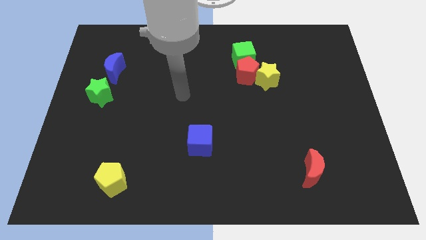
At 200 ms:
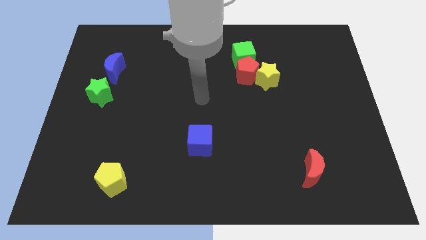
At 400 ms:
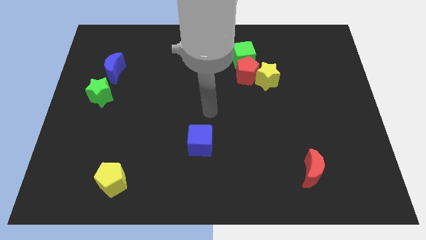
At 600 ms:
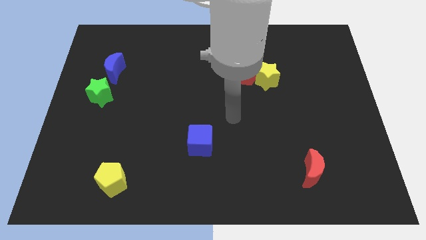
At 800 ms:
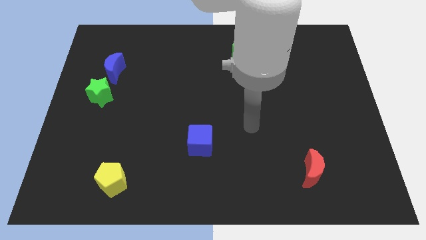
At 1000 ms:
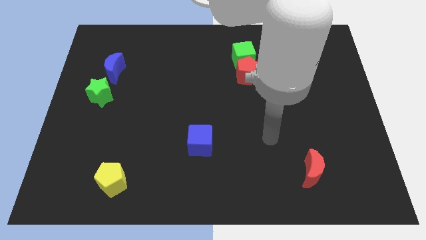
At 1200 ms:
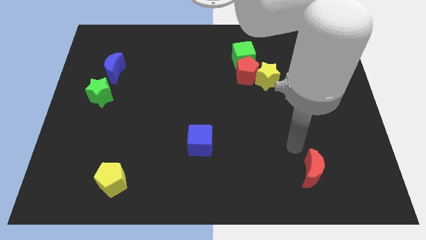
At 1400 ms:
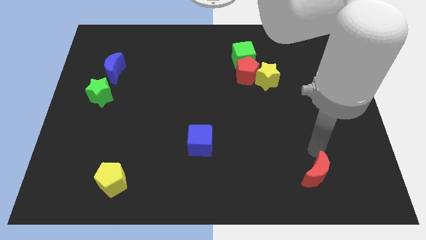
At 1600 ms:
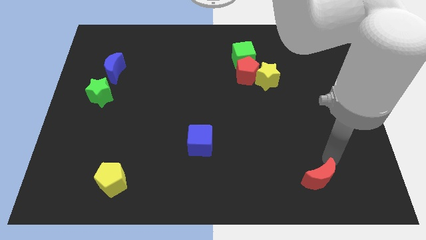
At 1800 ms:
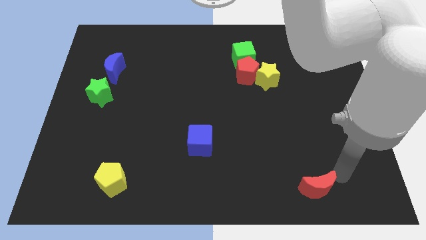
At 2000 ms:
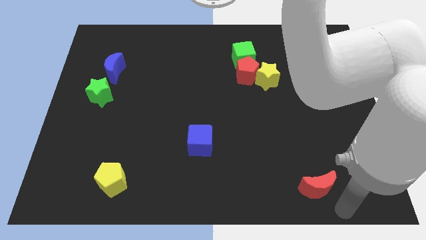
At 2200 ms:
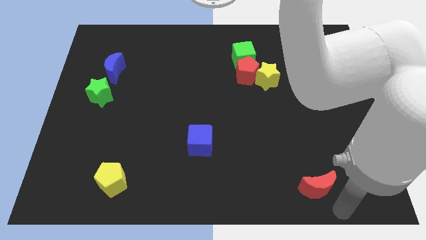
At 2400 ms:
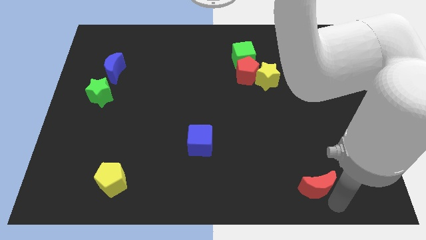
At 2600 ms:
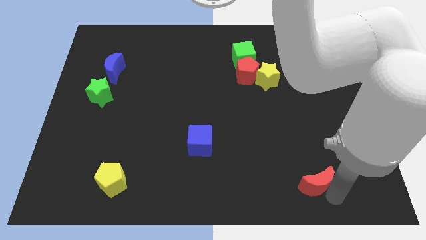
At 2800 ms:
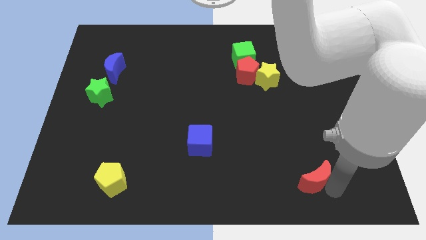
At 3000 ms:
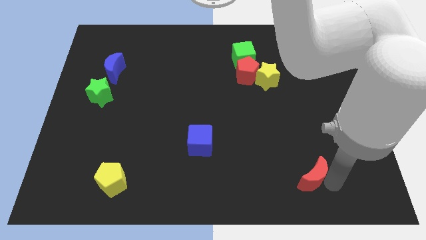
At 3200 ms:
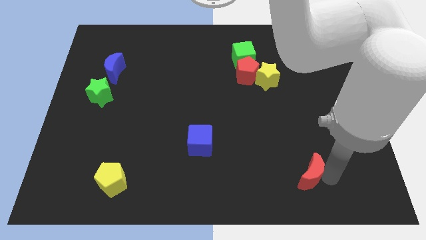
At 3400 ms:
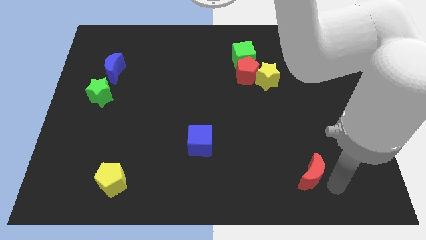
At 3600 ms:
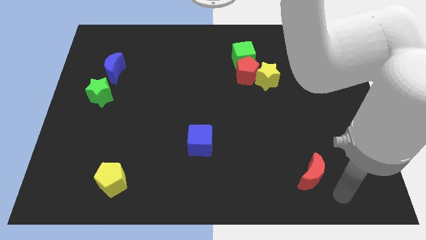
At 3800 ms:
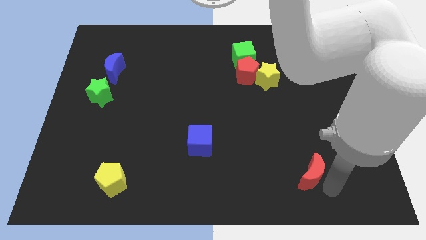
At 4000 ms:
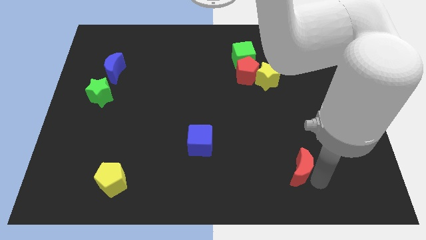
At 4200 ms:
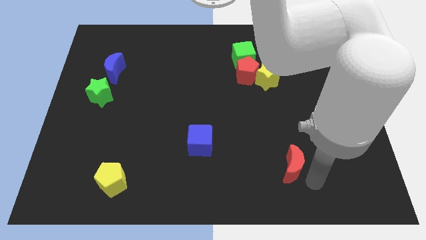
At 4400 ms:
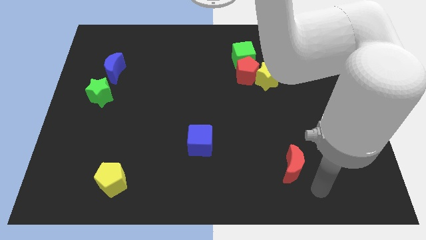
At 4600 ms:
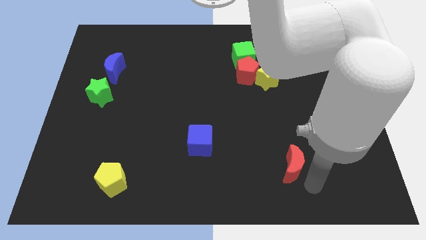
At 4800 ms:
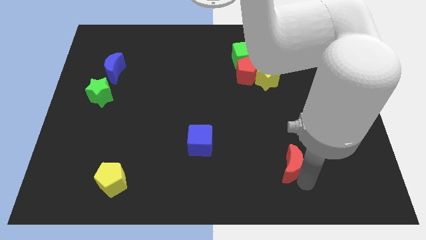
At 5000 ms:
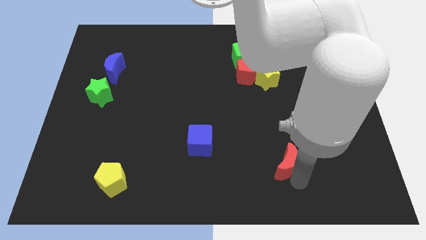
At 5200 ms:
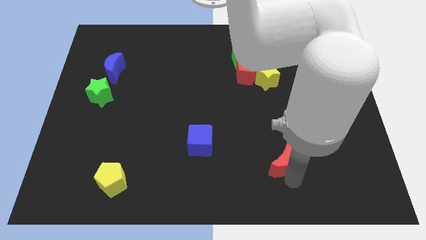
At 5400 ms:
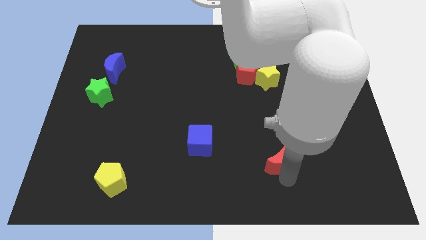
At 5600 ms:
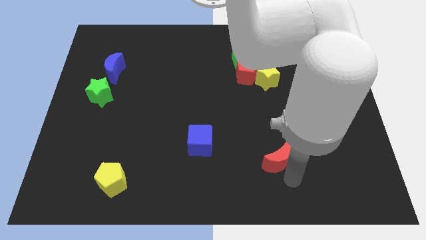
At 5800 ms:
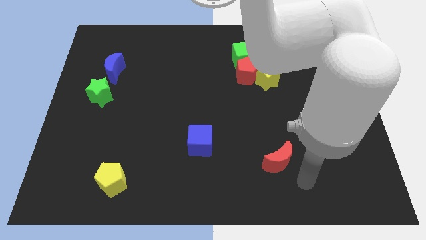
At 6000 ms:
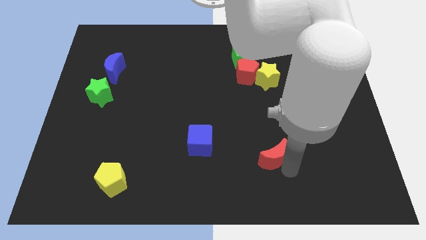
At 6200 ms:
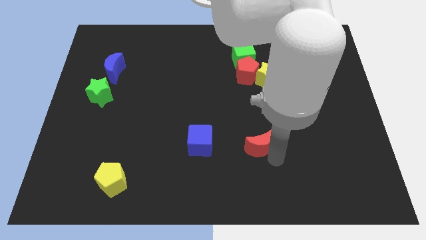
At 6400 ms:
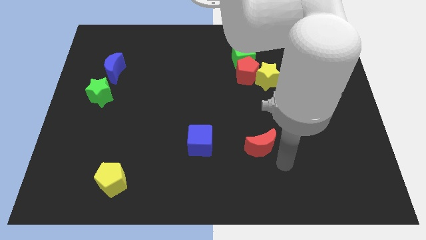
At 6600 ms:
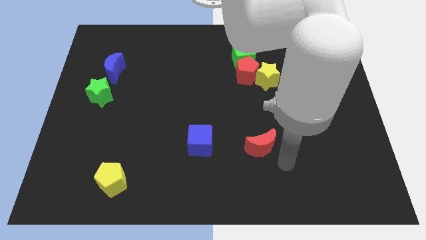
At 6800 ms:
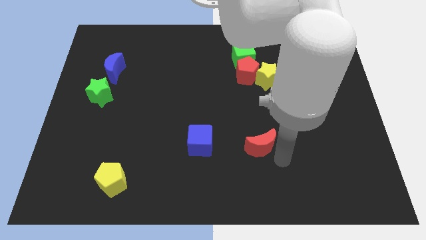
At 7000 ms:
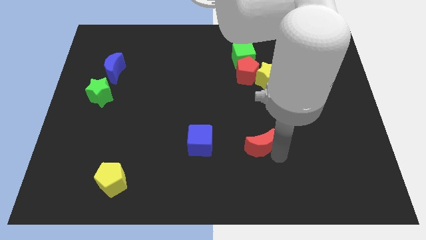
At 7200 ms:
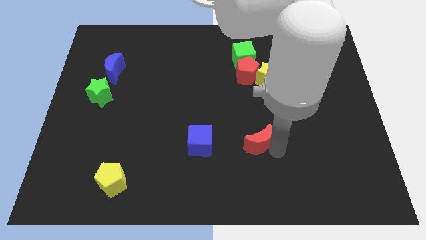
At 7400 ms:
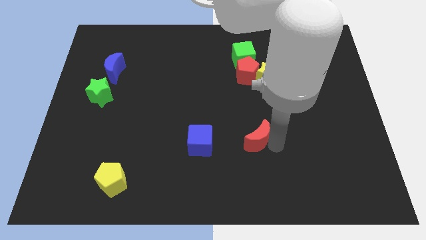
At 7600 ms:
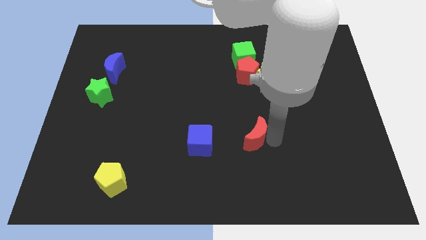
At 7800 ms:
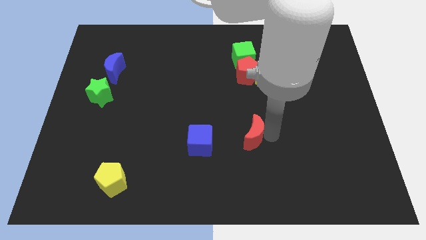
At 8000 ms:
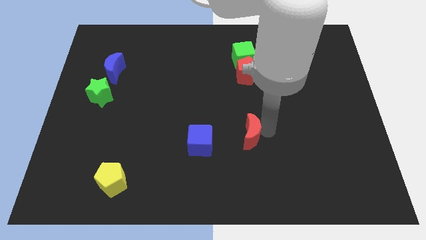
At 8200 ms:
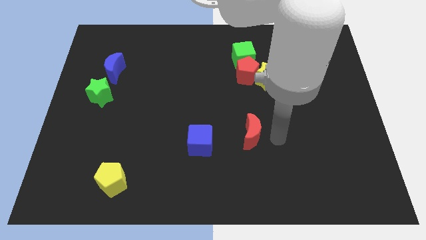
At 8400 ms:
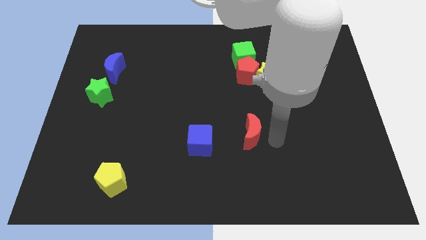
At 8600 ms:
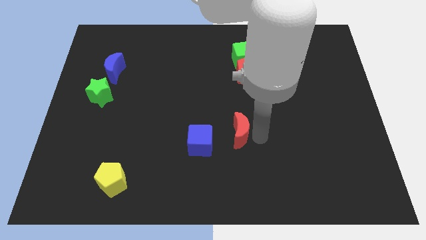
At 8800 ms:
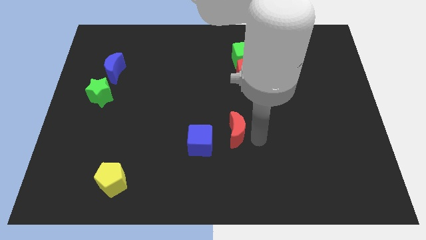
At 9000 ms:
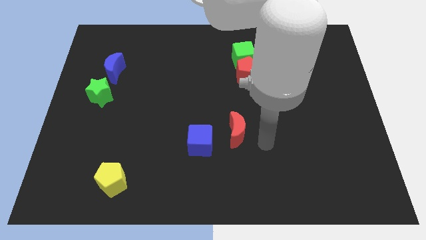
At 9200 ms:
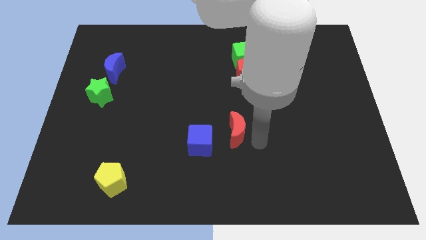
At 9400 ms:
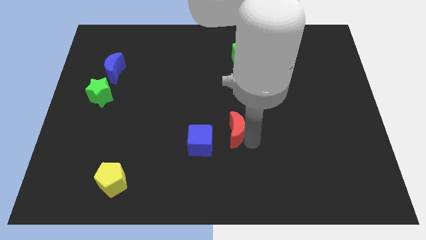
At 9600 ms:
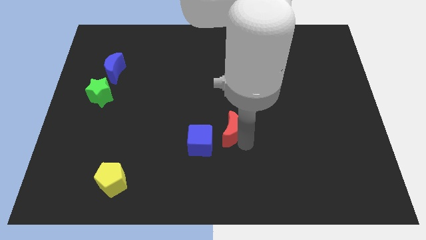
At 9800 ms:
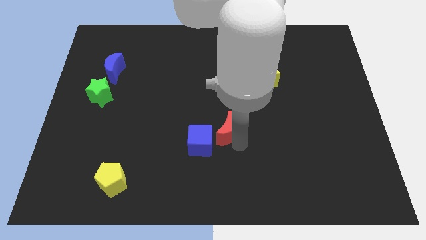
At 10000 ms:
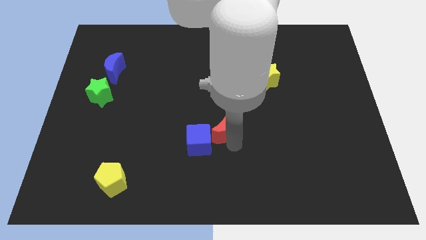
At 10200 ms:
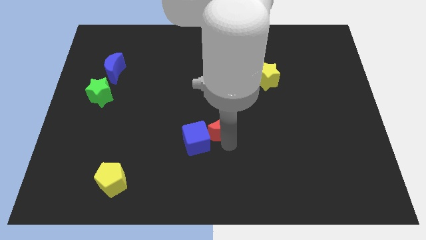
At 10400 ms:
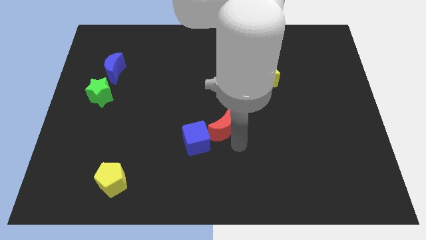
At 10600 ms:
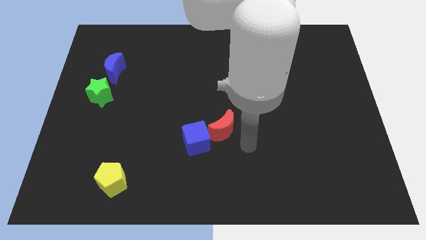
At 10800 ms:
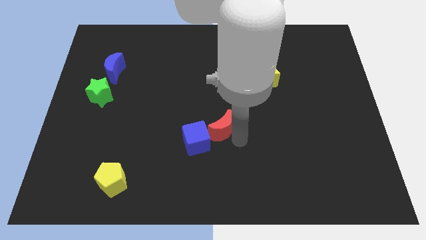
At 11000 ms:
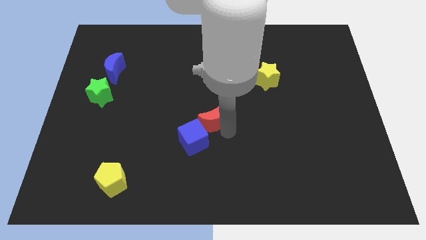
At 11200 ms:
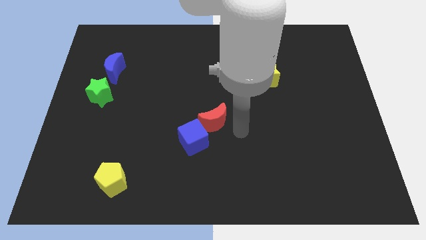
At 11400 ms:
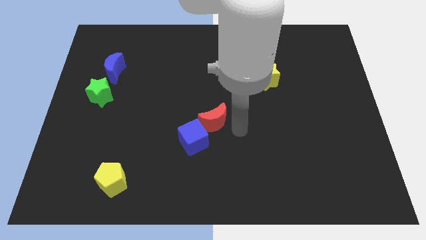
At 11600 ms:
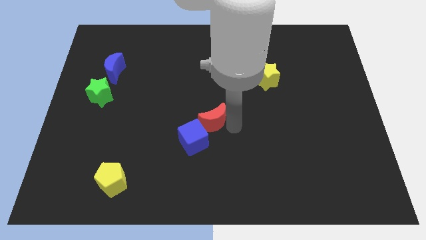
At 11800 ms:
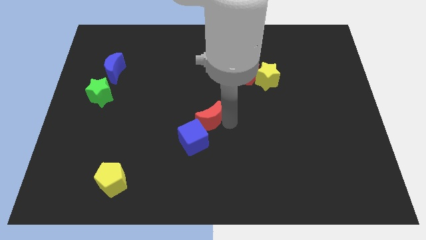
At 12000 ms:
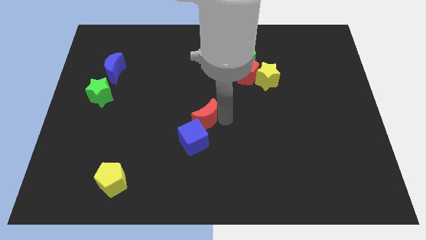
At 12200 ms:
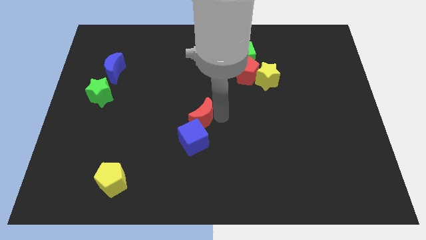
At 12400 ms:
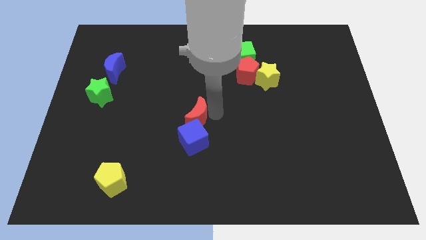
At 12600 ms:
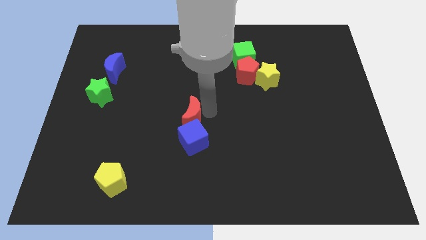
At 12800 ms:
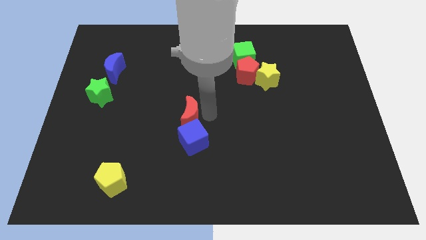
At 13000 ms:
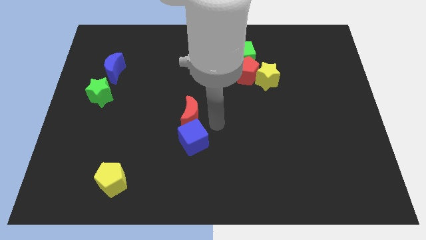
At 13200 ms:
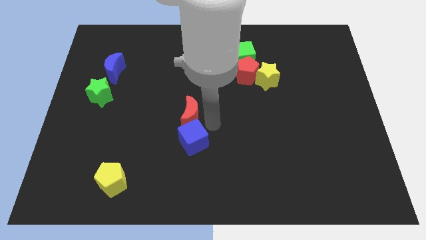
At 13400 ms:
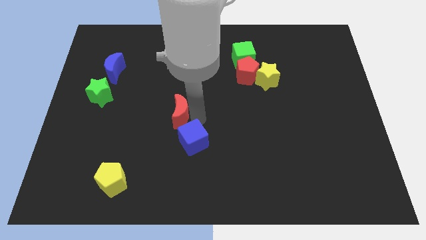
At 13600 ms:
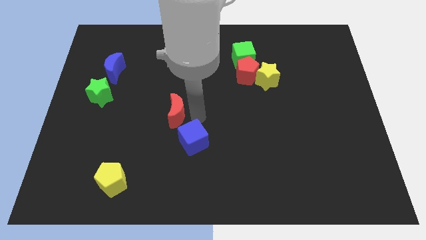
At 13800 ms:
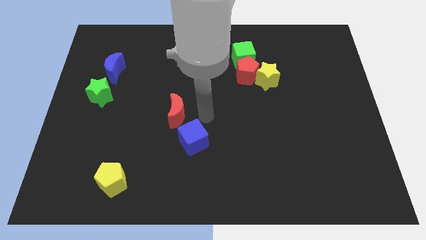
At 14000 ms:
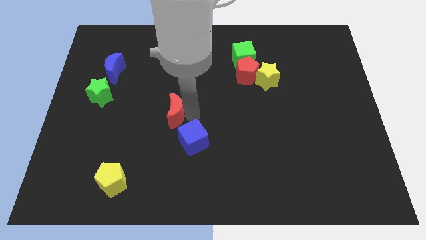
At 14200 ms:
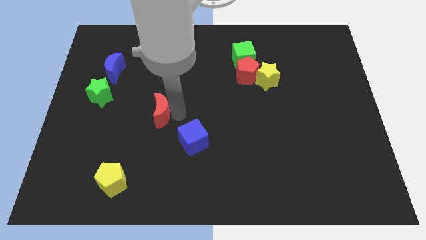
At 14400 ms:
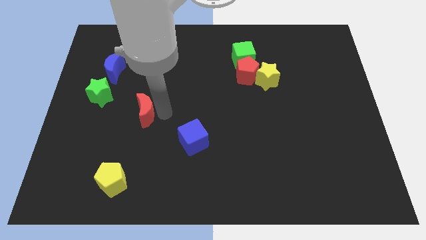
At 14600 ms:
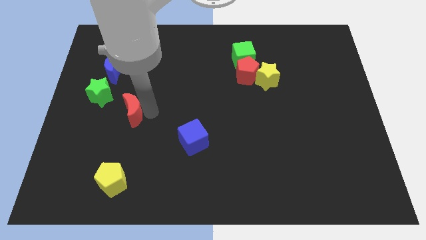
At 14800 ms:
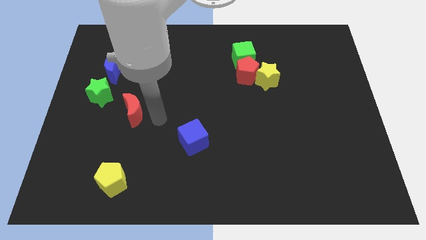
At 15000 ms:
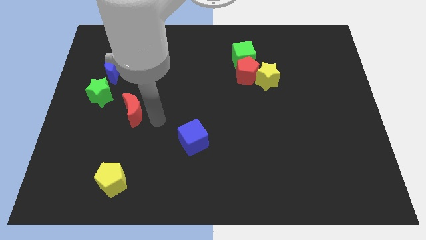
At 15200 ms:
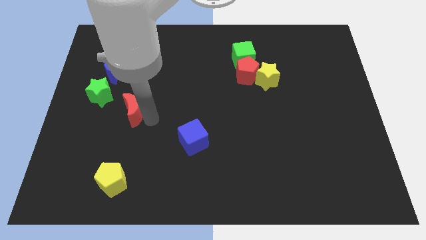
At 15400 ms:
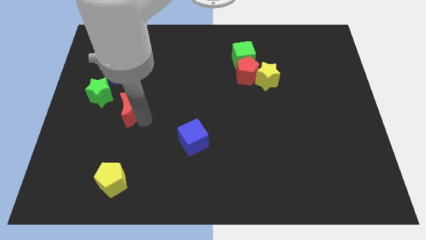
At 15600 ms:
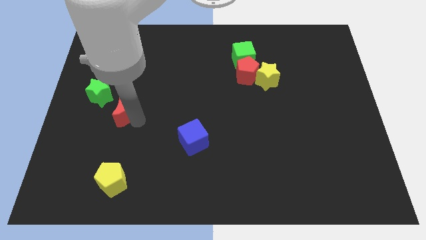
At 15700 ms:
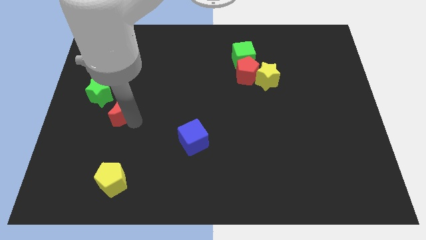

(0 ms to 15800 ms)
slide the red moon to the bottom of the blue moon
